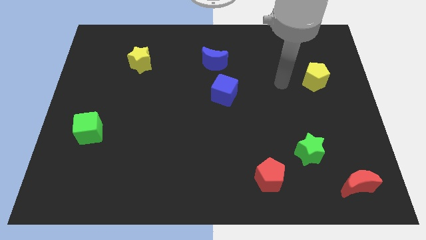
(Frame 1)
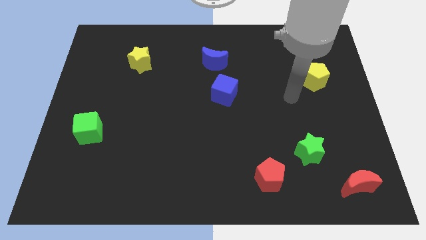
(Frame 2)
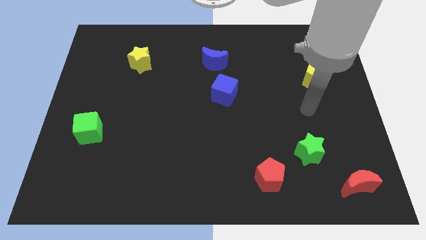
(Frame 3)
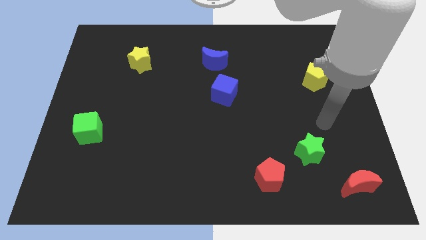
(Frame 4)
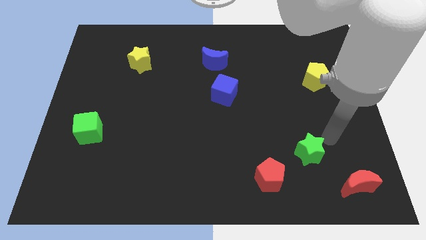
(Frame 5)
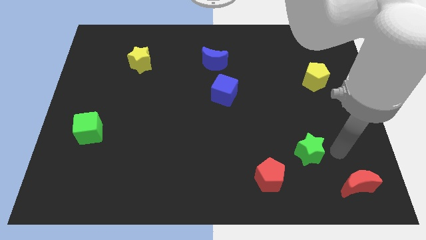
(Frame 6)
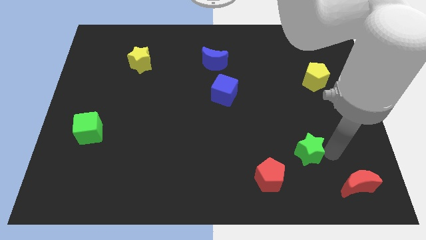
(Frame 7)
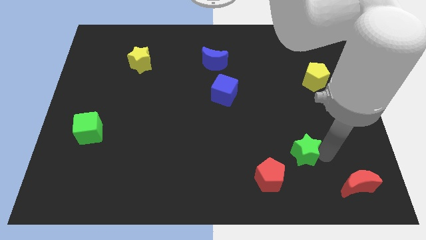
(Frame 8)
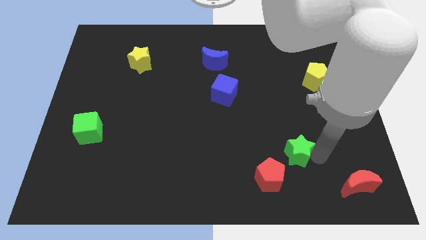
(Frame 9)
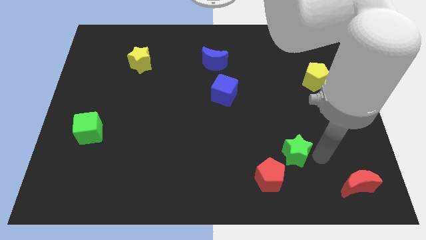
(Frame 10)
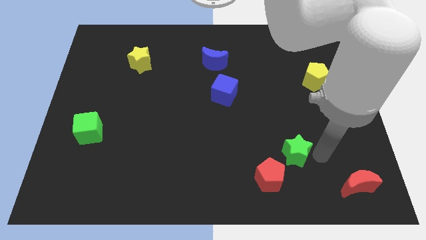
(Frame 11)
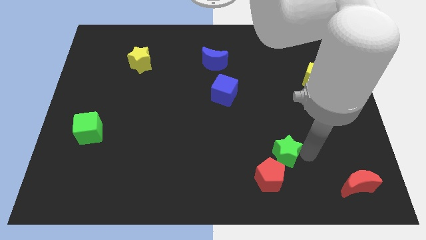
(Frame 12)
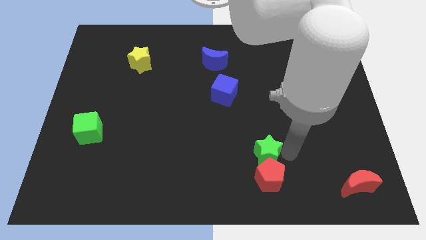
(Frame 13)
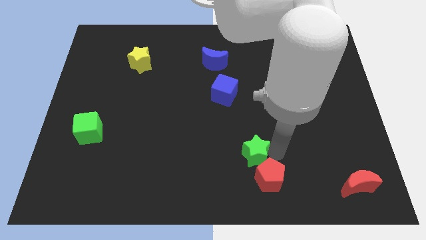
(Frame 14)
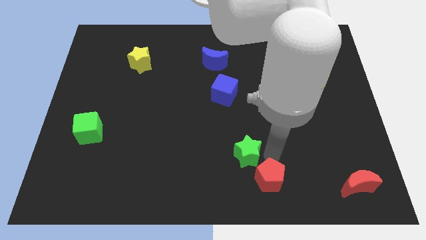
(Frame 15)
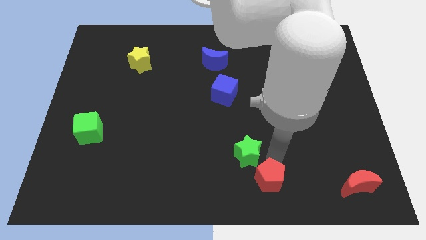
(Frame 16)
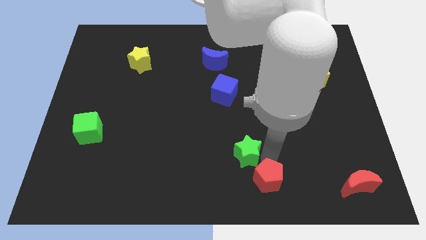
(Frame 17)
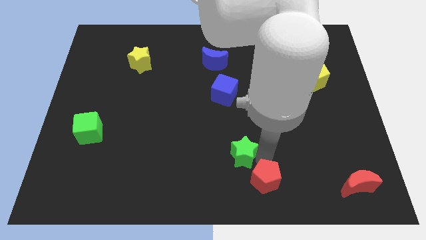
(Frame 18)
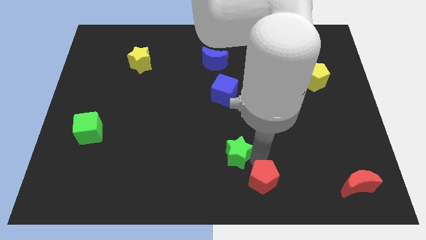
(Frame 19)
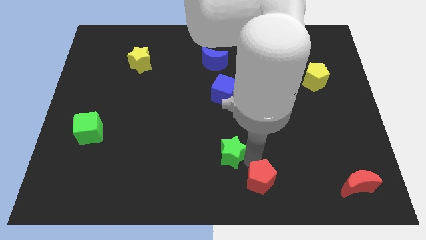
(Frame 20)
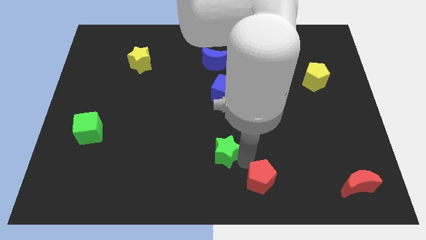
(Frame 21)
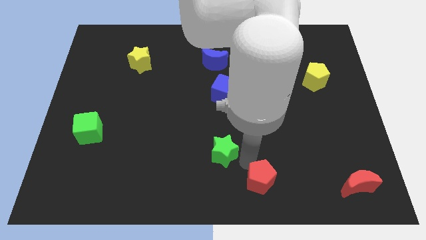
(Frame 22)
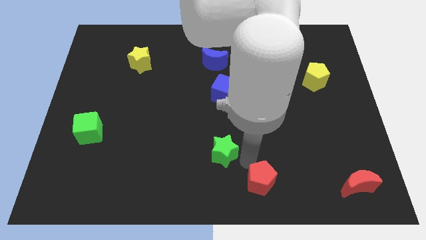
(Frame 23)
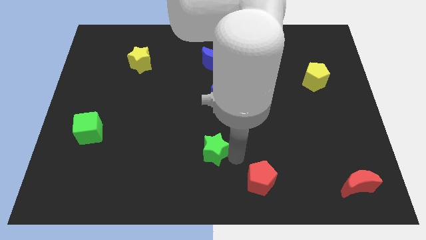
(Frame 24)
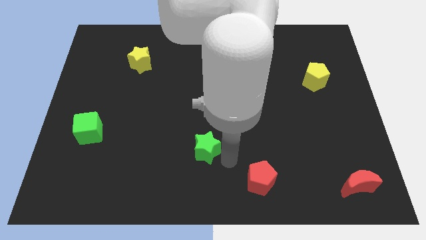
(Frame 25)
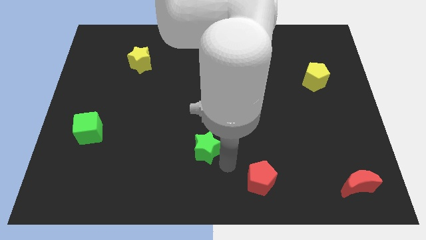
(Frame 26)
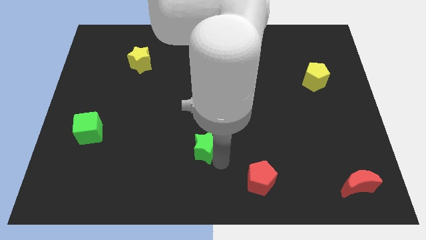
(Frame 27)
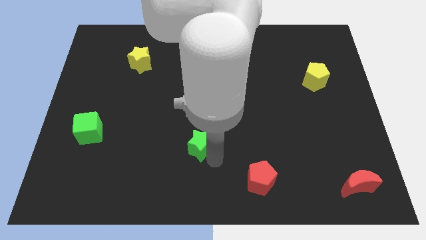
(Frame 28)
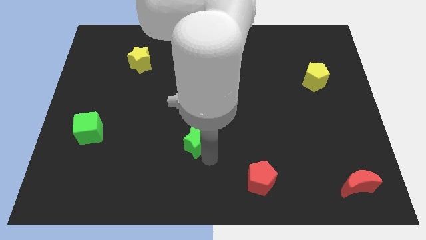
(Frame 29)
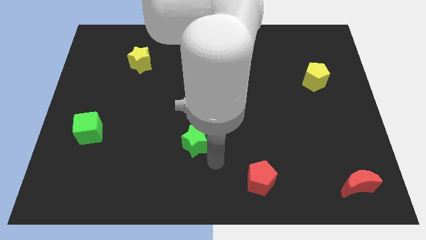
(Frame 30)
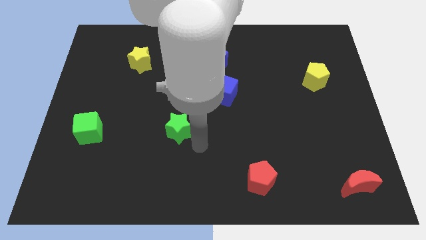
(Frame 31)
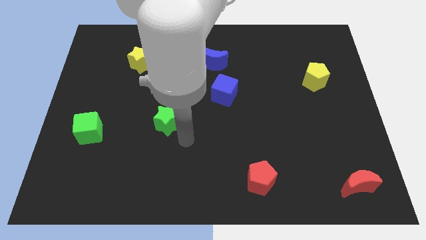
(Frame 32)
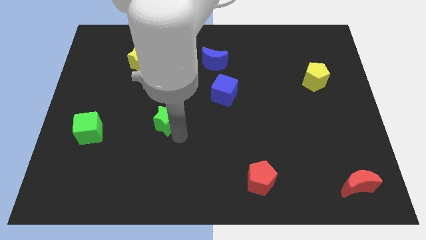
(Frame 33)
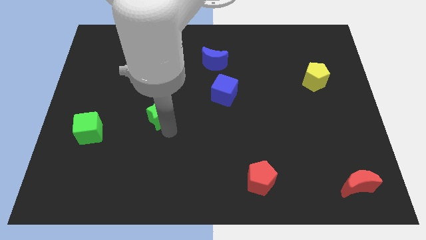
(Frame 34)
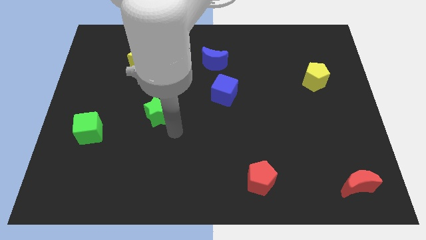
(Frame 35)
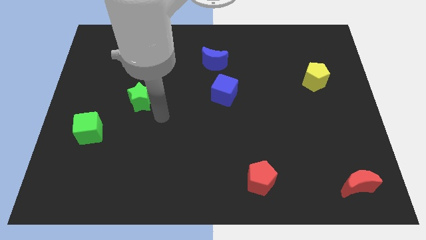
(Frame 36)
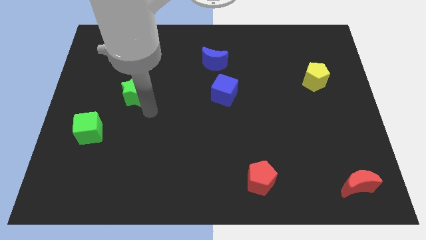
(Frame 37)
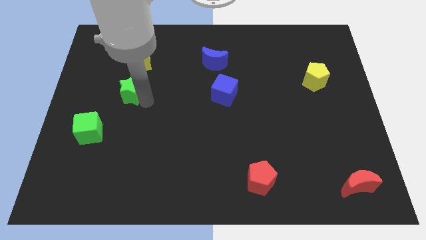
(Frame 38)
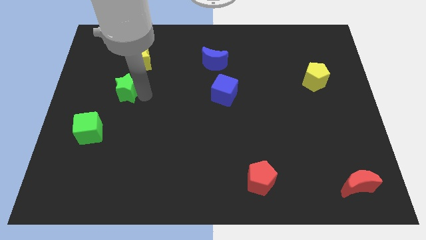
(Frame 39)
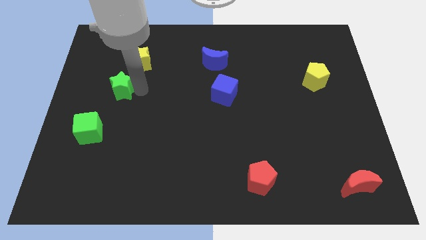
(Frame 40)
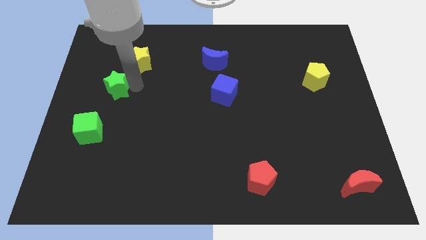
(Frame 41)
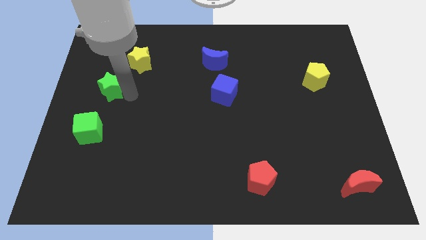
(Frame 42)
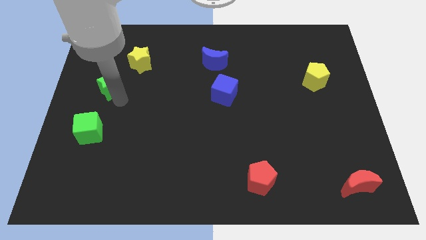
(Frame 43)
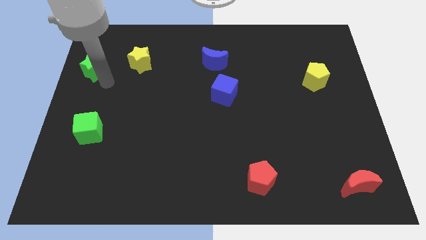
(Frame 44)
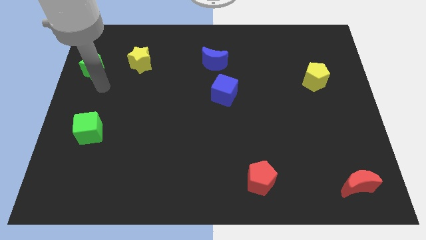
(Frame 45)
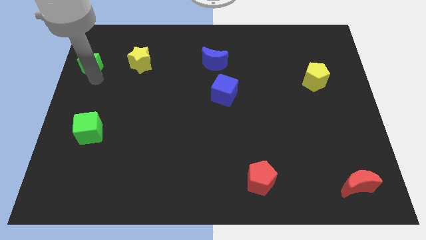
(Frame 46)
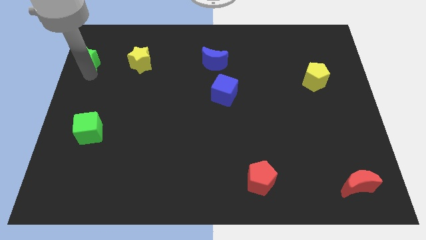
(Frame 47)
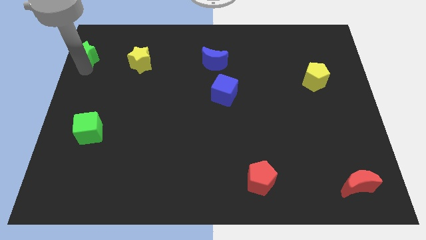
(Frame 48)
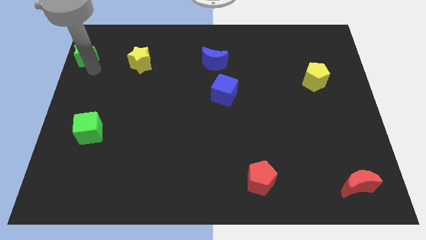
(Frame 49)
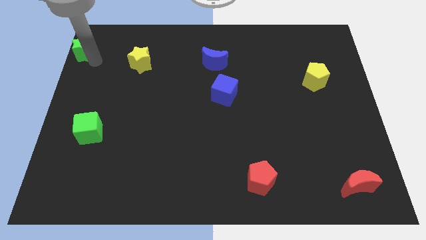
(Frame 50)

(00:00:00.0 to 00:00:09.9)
push the green star to the top left corner

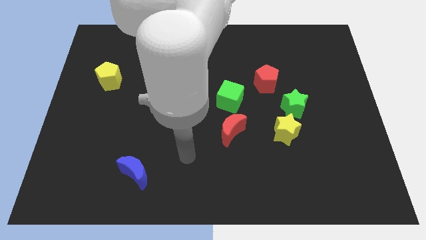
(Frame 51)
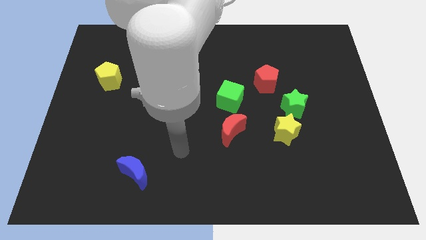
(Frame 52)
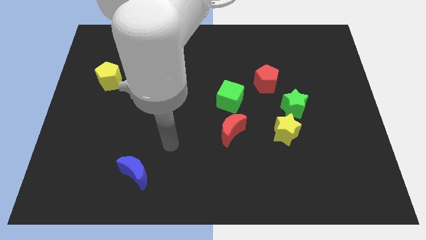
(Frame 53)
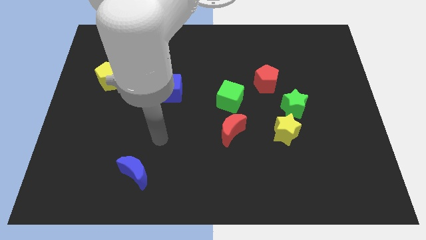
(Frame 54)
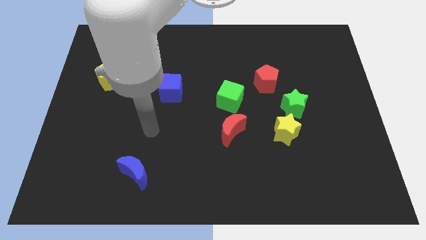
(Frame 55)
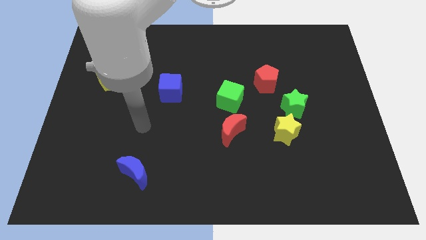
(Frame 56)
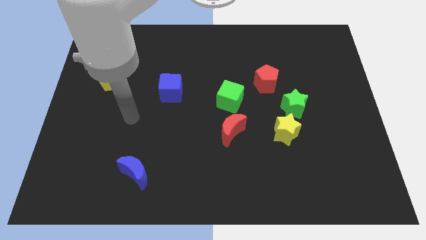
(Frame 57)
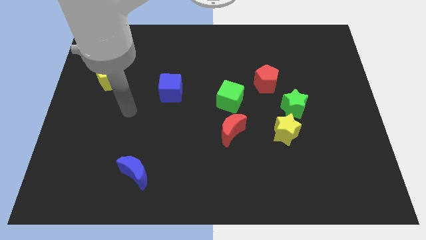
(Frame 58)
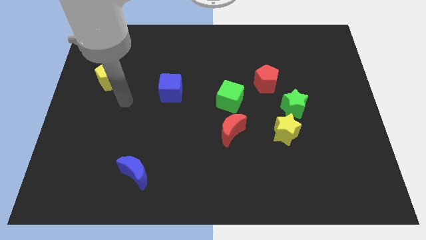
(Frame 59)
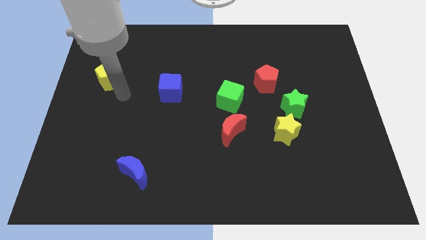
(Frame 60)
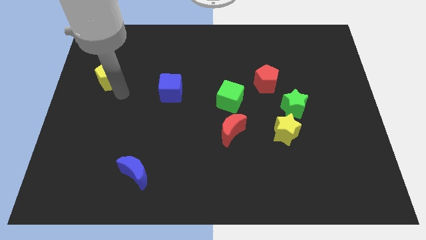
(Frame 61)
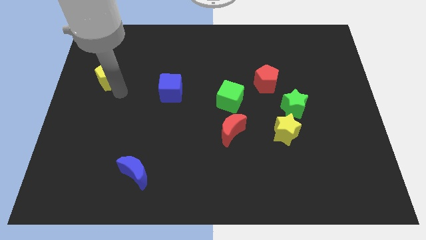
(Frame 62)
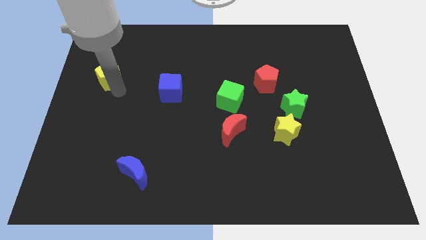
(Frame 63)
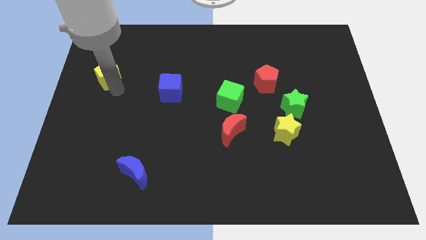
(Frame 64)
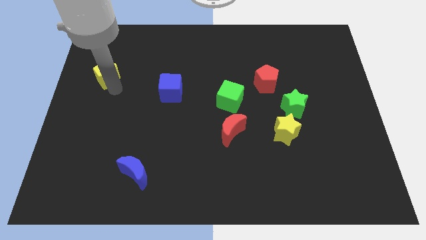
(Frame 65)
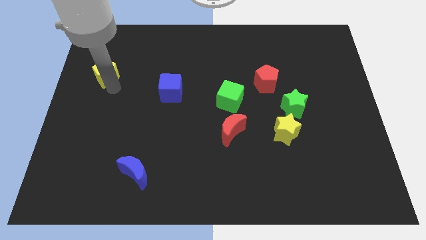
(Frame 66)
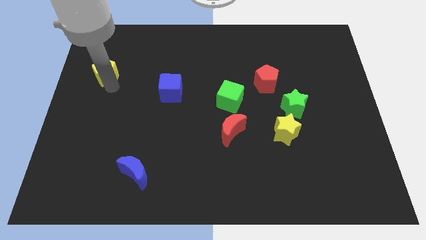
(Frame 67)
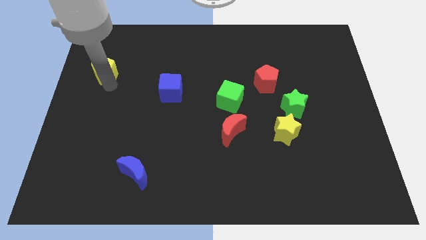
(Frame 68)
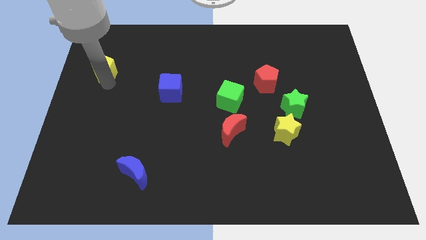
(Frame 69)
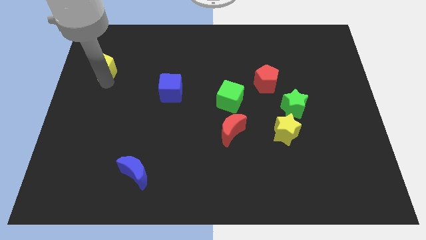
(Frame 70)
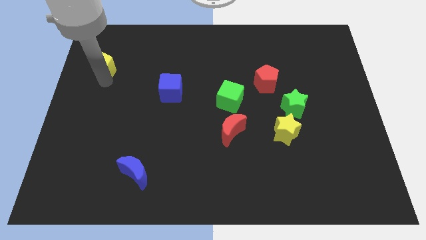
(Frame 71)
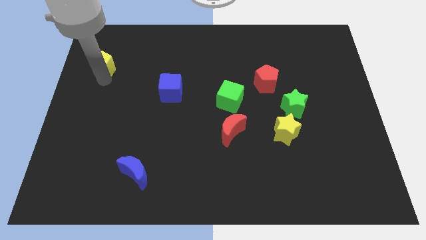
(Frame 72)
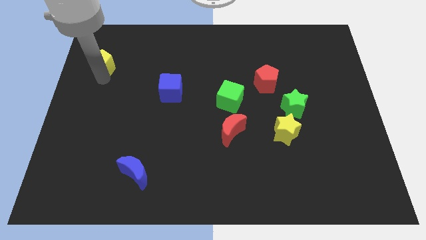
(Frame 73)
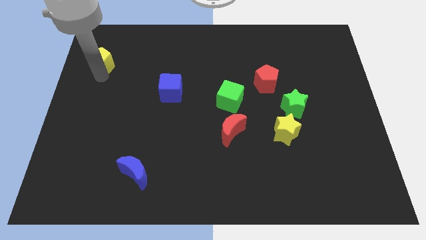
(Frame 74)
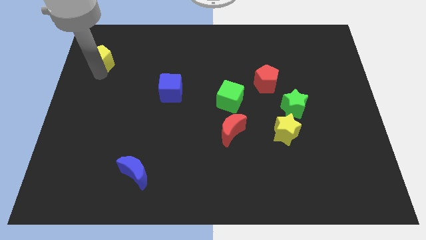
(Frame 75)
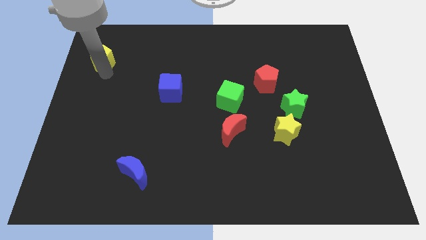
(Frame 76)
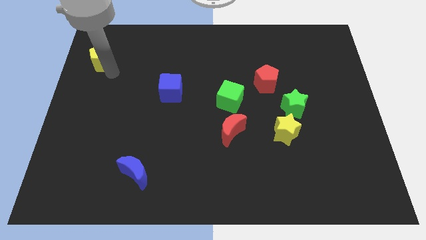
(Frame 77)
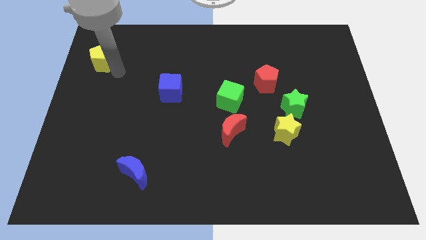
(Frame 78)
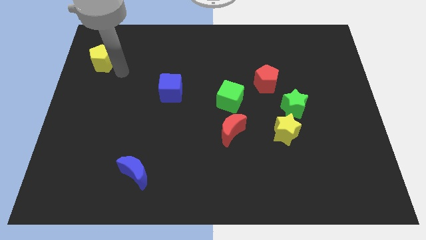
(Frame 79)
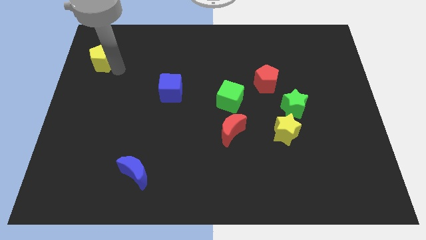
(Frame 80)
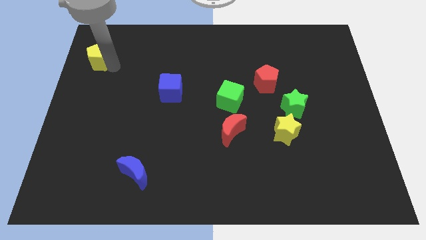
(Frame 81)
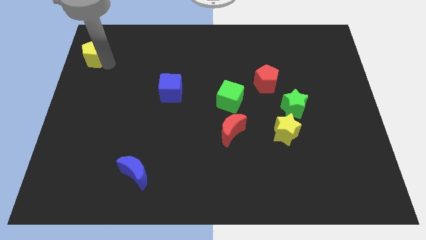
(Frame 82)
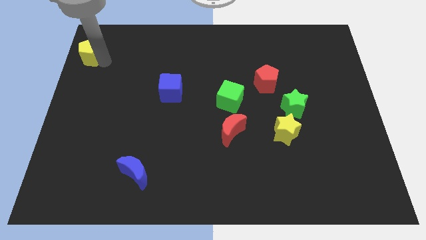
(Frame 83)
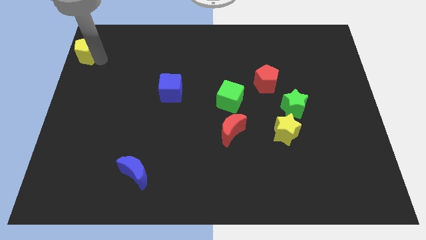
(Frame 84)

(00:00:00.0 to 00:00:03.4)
move the yellow pentagon to the top left
